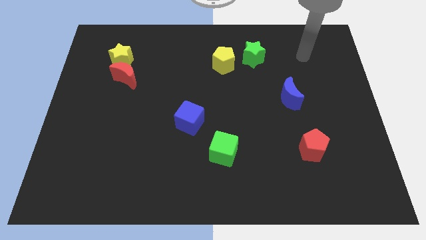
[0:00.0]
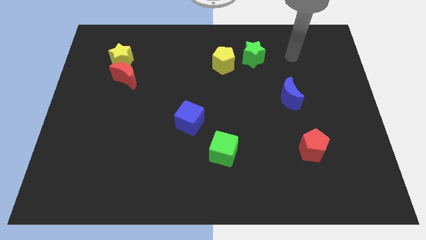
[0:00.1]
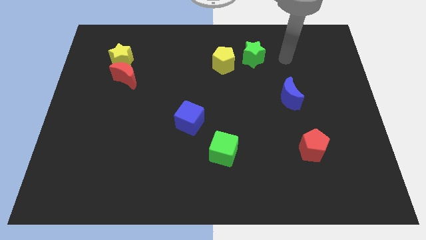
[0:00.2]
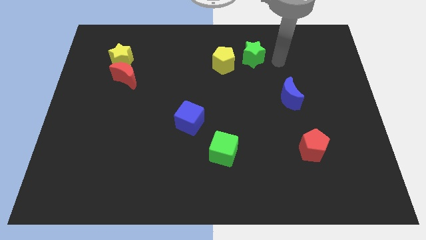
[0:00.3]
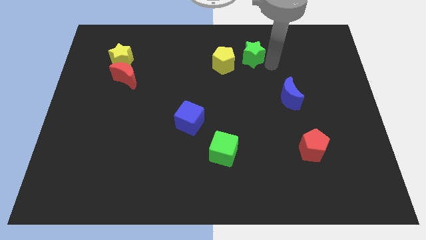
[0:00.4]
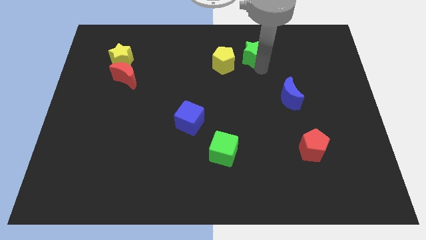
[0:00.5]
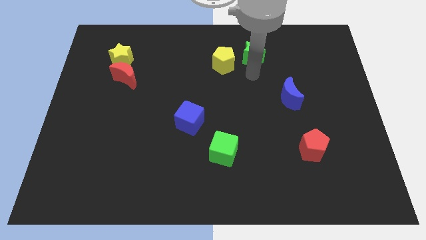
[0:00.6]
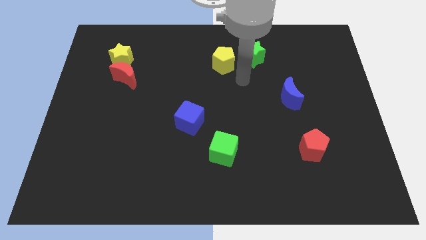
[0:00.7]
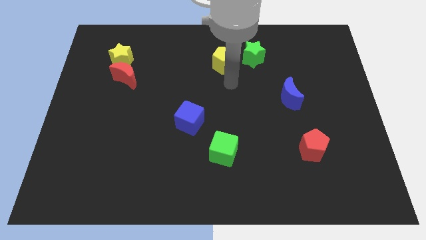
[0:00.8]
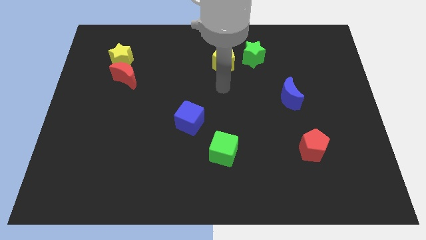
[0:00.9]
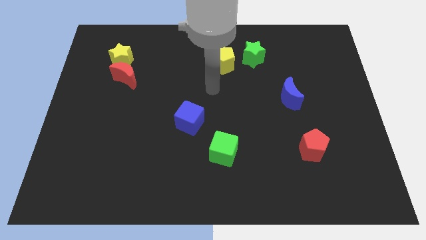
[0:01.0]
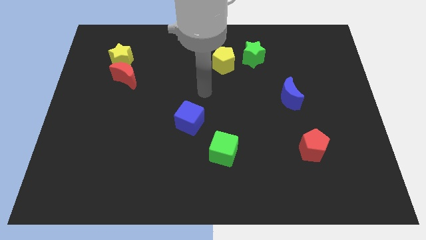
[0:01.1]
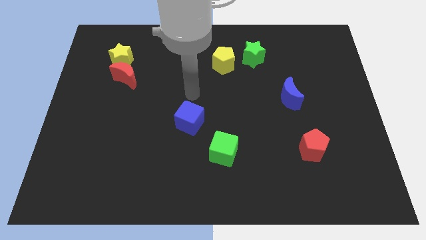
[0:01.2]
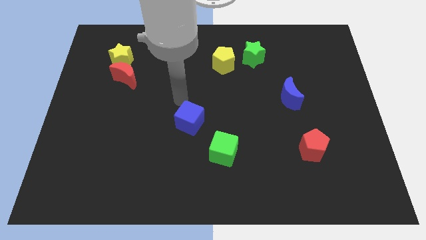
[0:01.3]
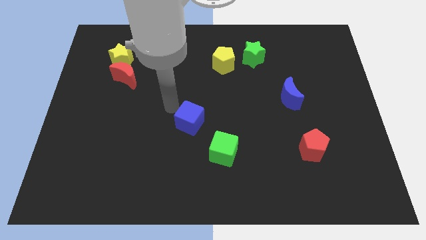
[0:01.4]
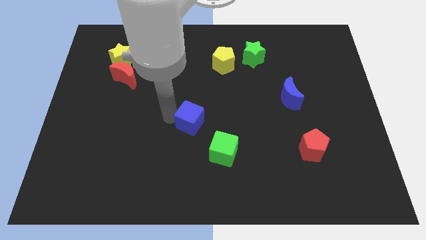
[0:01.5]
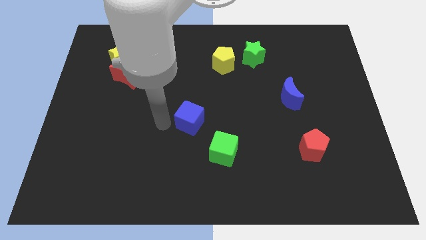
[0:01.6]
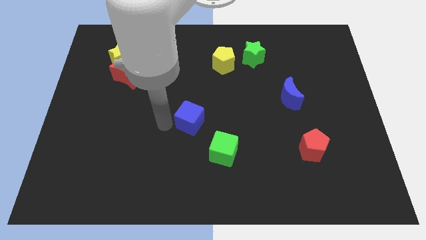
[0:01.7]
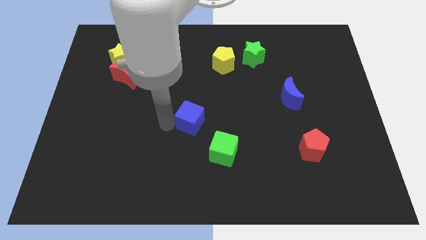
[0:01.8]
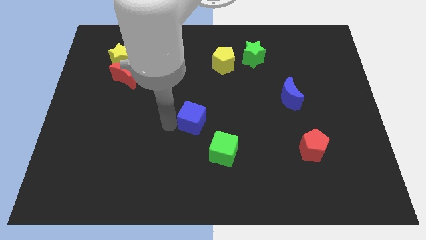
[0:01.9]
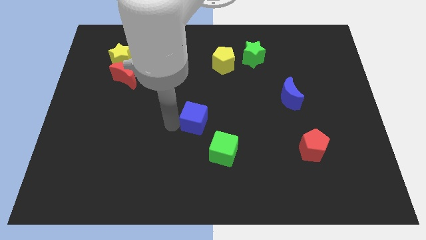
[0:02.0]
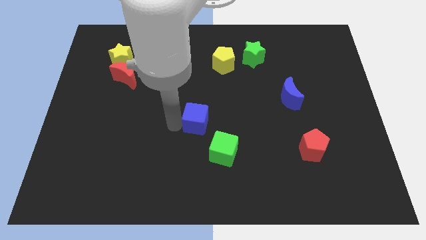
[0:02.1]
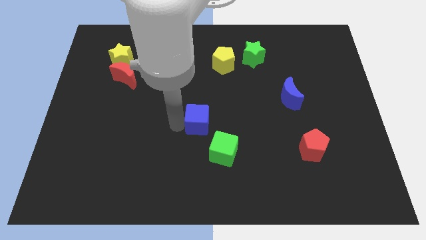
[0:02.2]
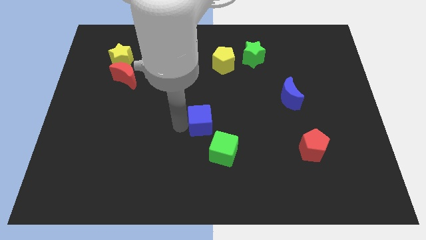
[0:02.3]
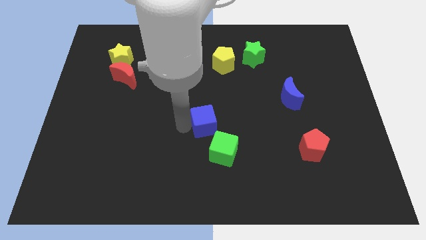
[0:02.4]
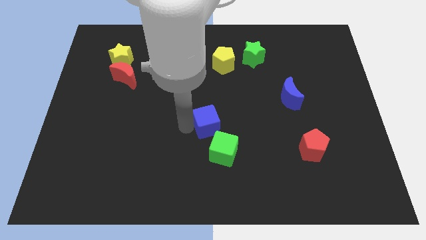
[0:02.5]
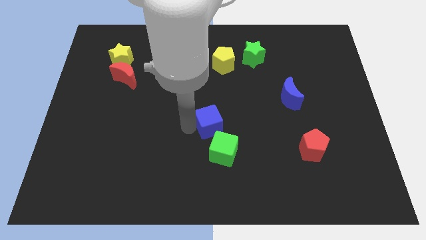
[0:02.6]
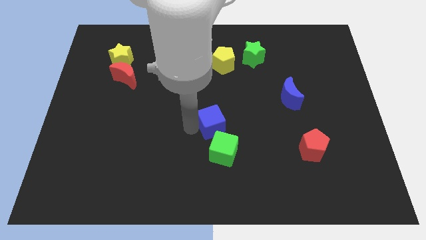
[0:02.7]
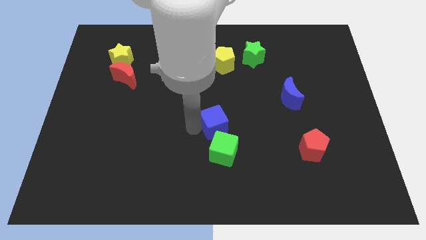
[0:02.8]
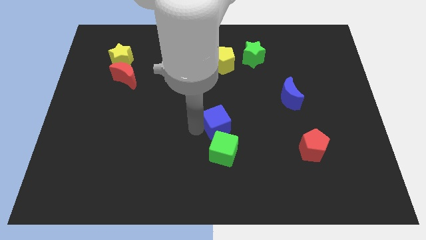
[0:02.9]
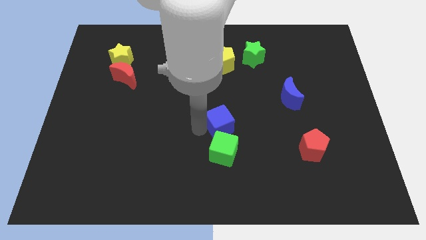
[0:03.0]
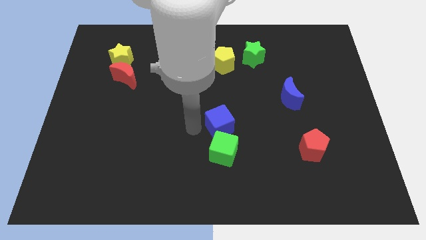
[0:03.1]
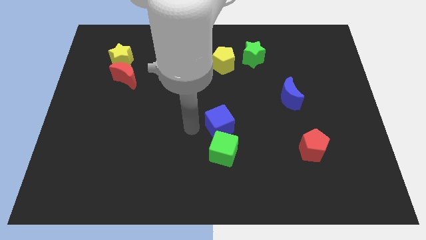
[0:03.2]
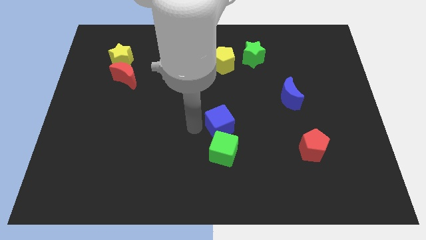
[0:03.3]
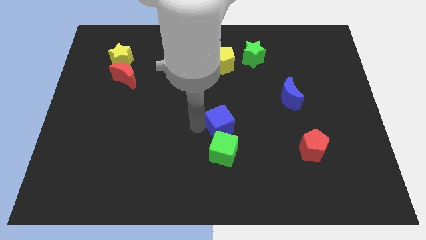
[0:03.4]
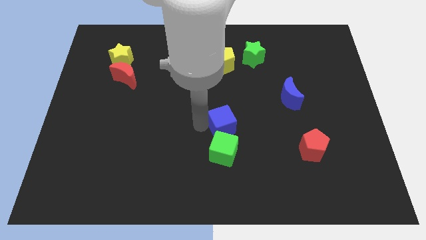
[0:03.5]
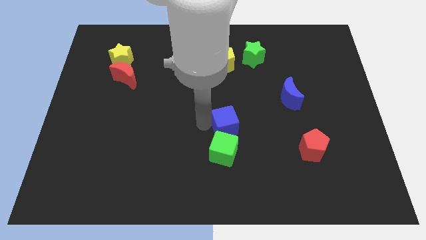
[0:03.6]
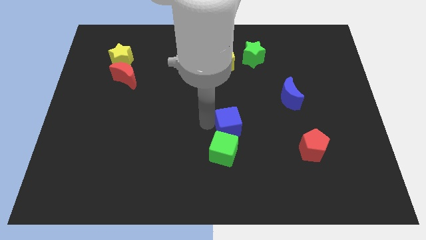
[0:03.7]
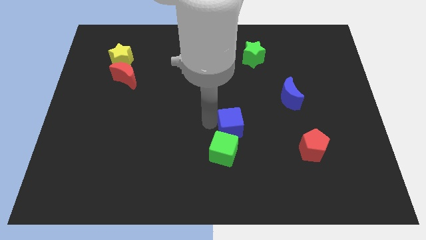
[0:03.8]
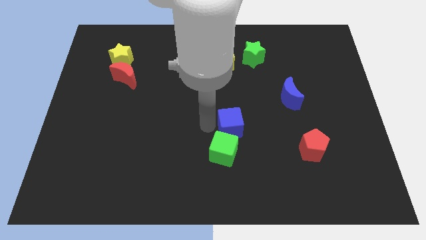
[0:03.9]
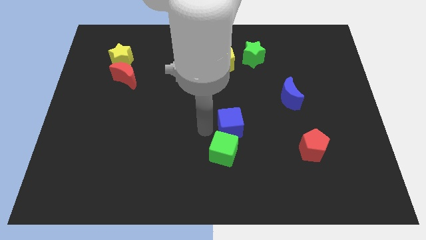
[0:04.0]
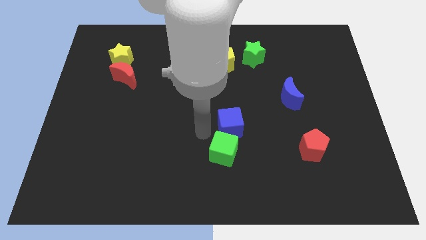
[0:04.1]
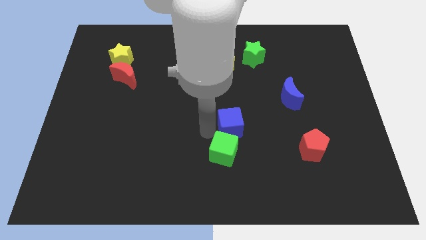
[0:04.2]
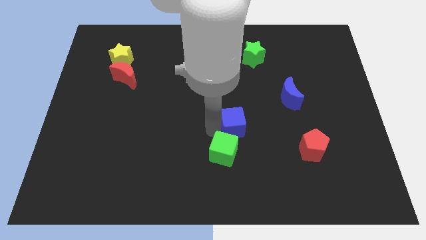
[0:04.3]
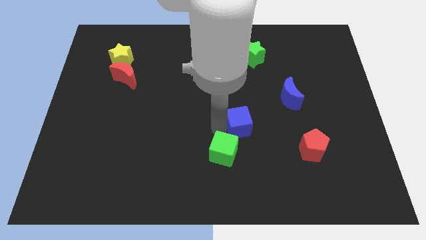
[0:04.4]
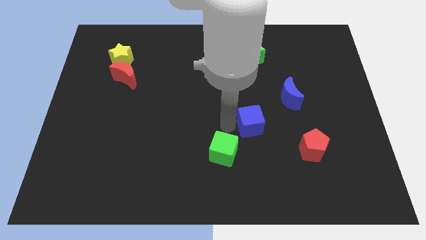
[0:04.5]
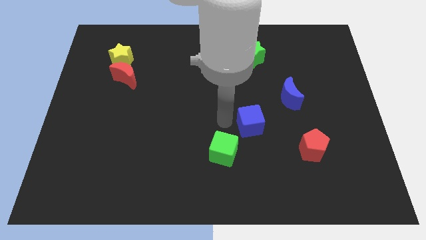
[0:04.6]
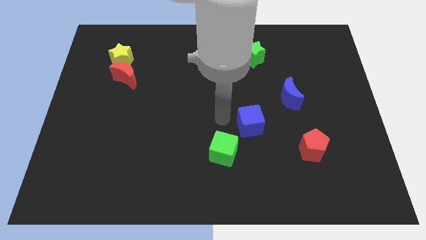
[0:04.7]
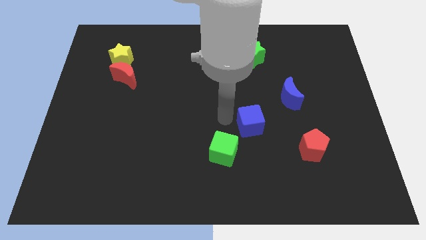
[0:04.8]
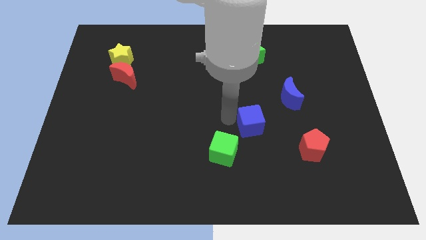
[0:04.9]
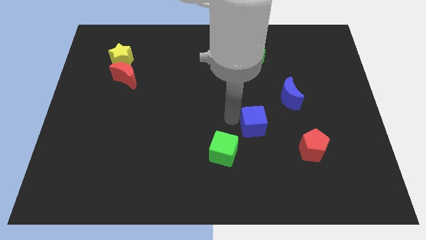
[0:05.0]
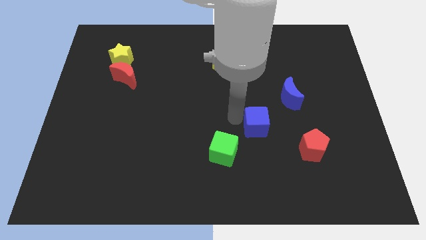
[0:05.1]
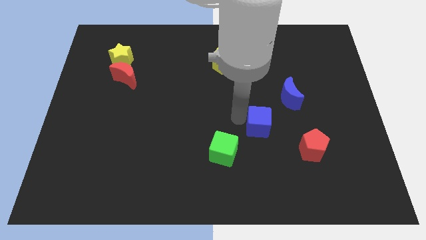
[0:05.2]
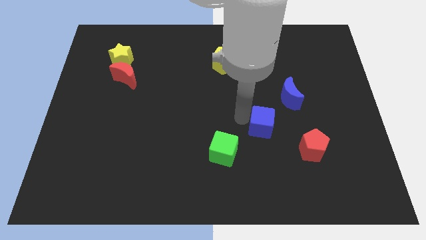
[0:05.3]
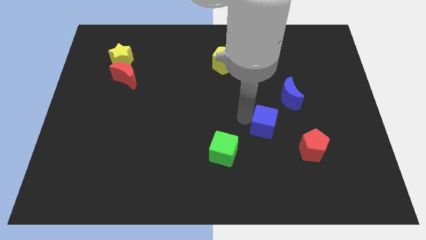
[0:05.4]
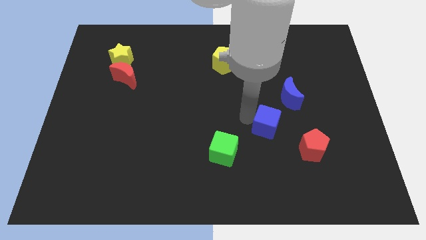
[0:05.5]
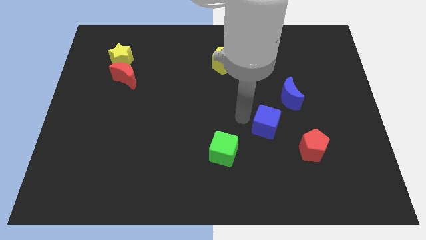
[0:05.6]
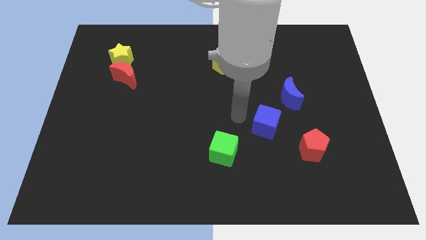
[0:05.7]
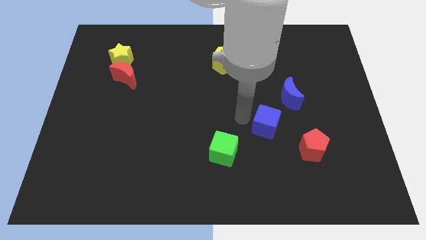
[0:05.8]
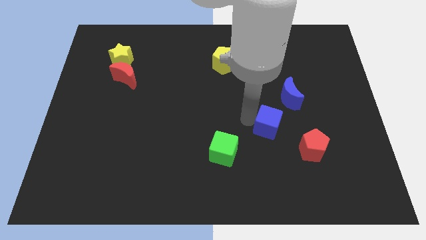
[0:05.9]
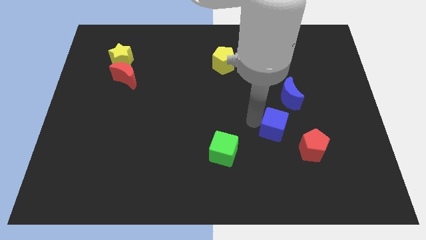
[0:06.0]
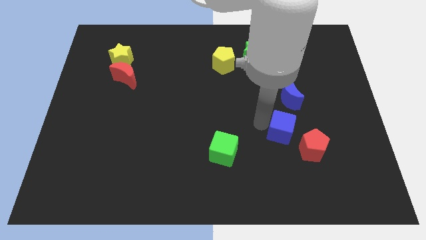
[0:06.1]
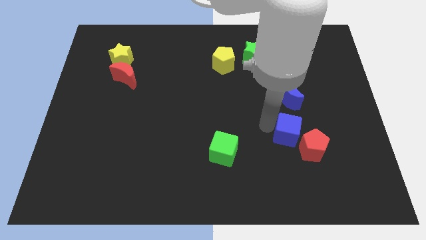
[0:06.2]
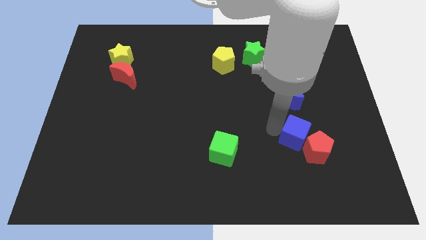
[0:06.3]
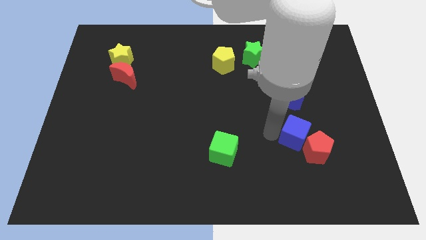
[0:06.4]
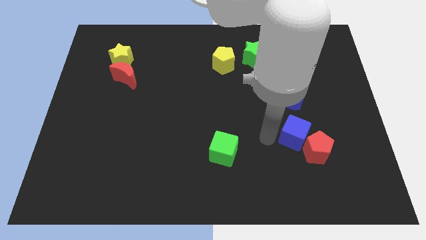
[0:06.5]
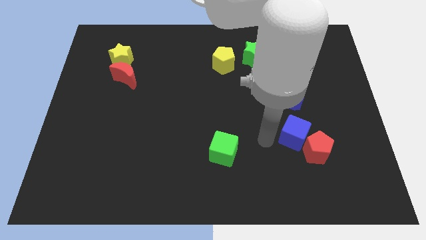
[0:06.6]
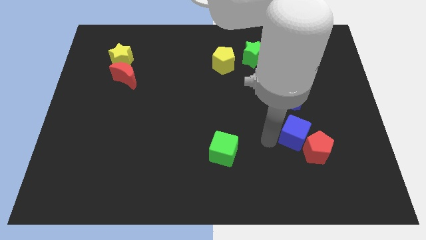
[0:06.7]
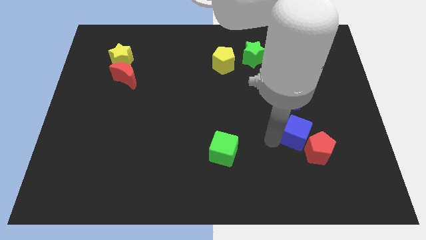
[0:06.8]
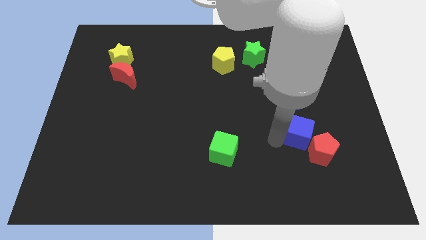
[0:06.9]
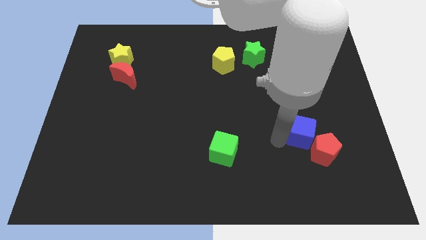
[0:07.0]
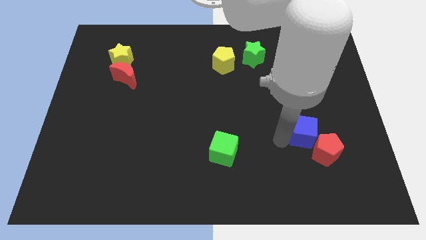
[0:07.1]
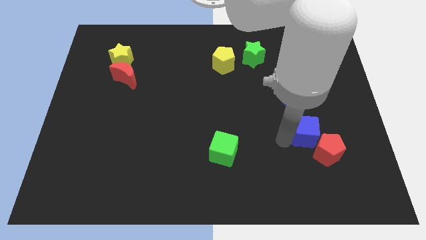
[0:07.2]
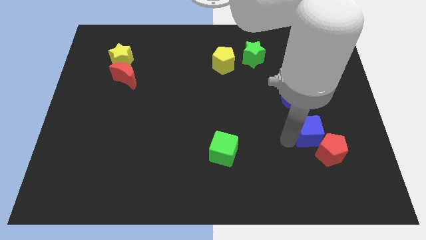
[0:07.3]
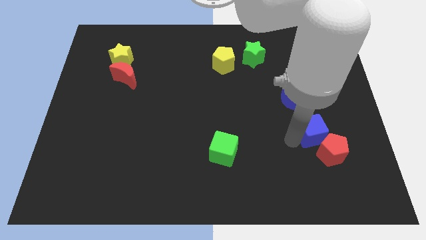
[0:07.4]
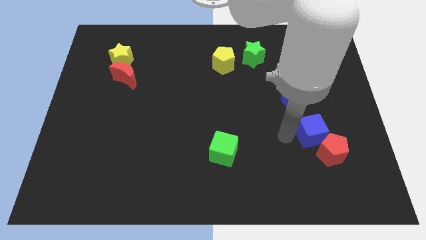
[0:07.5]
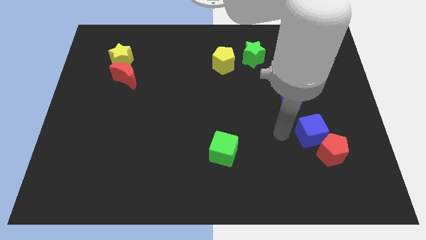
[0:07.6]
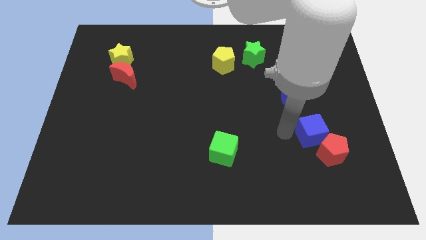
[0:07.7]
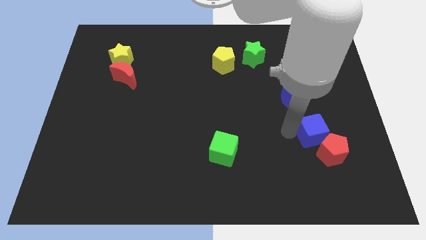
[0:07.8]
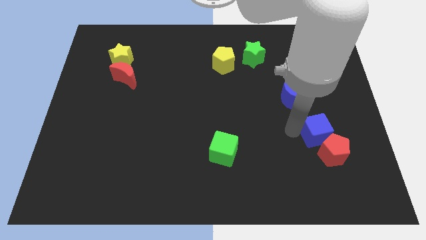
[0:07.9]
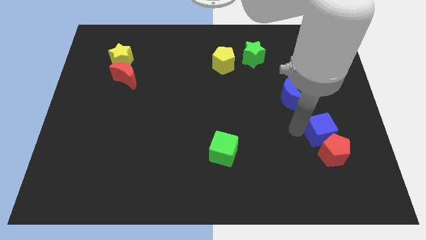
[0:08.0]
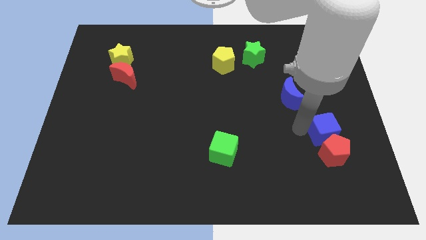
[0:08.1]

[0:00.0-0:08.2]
slide the blue cube to the top right side of the red pentagon
